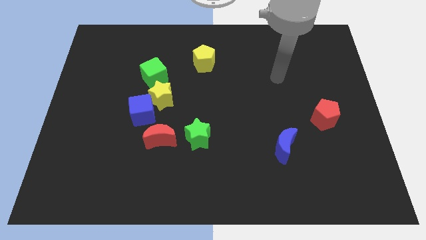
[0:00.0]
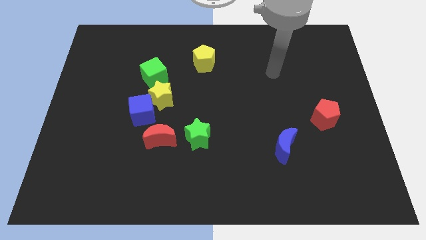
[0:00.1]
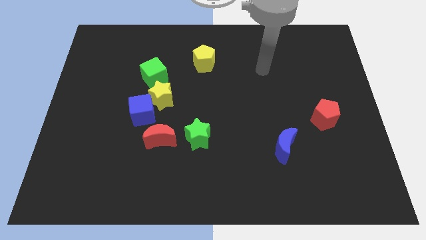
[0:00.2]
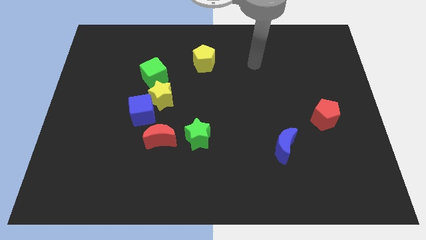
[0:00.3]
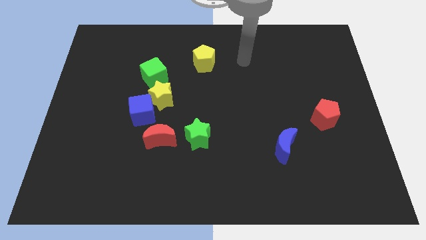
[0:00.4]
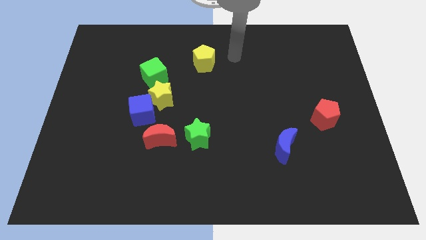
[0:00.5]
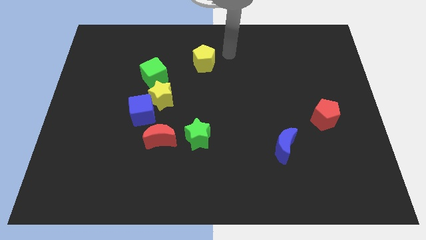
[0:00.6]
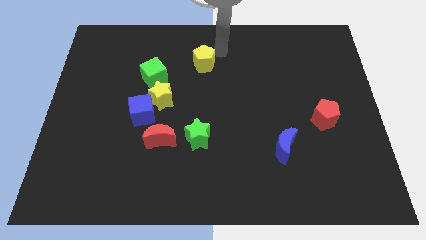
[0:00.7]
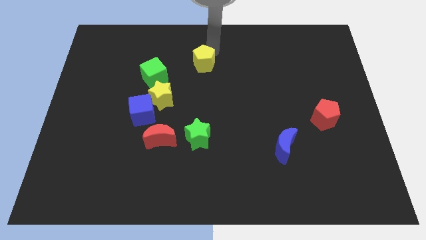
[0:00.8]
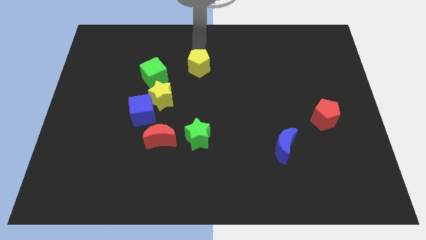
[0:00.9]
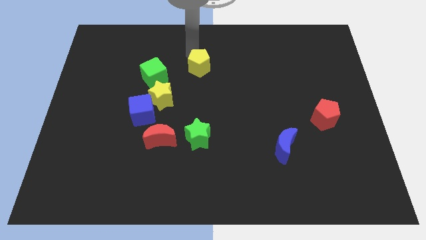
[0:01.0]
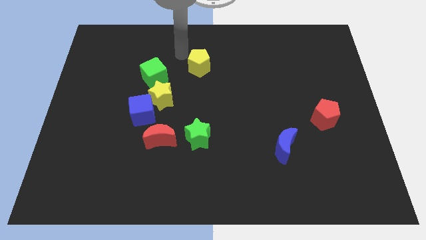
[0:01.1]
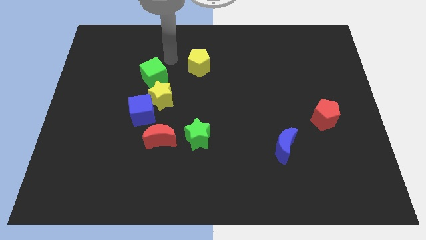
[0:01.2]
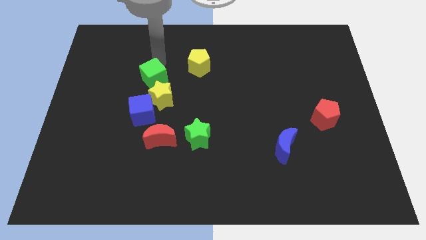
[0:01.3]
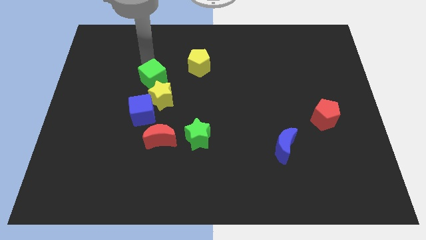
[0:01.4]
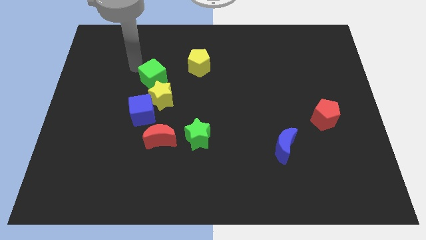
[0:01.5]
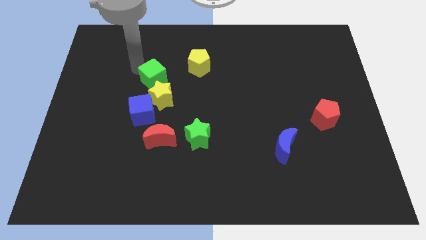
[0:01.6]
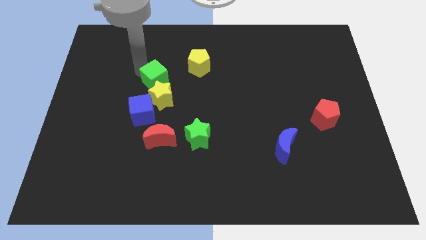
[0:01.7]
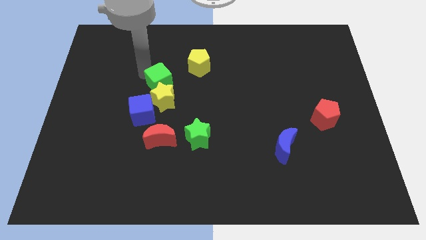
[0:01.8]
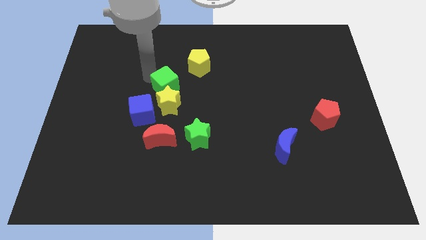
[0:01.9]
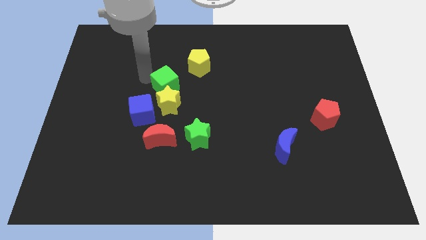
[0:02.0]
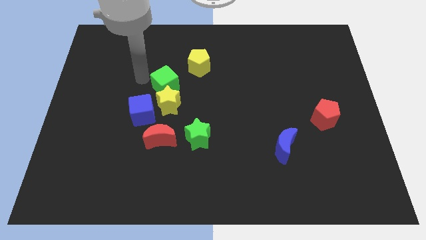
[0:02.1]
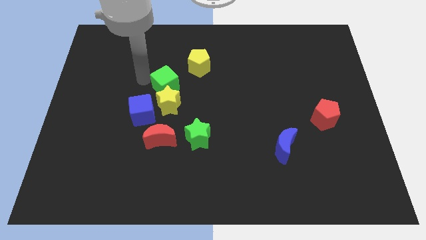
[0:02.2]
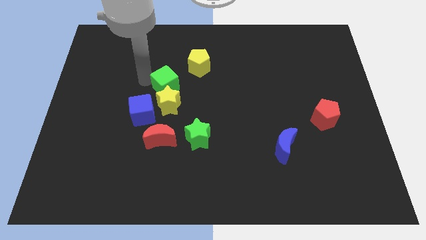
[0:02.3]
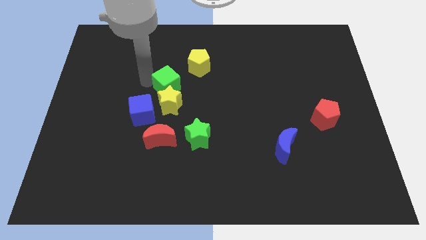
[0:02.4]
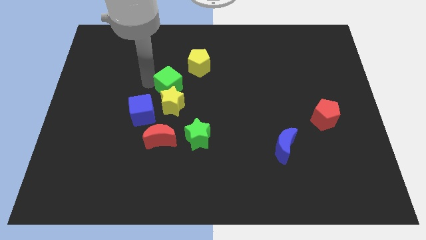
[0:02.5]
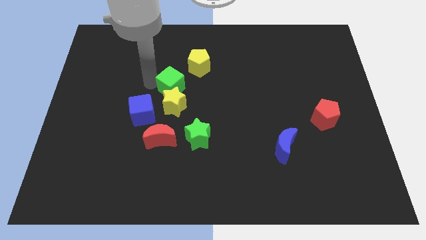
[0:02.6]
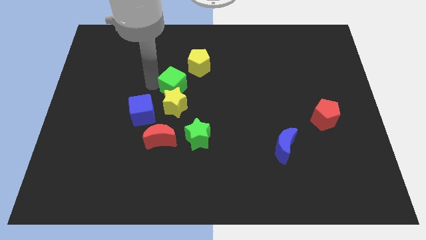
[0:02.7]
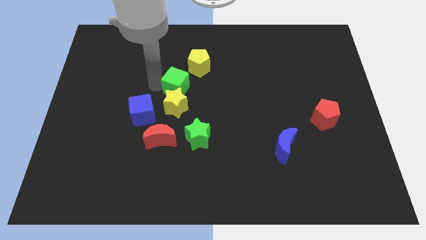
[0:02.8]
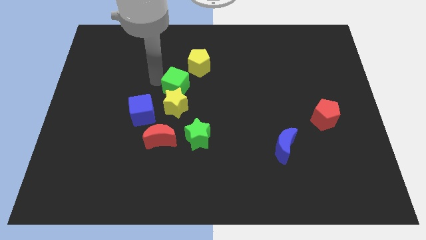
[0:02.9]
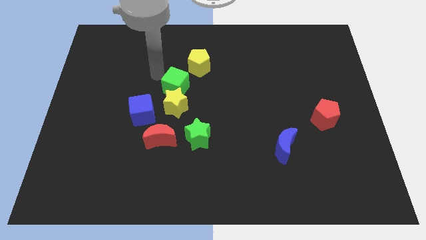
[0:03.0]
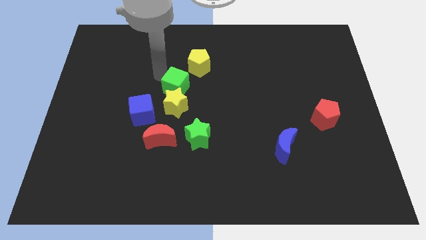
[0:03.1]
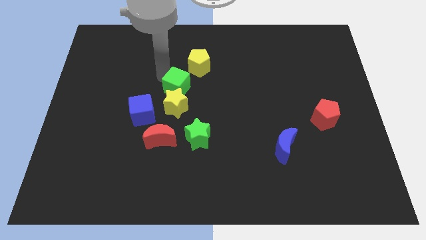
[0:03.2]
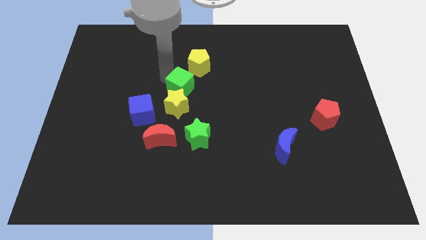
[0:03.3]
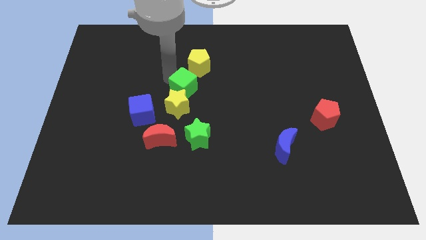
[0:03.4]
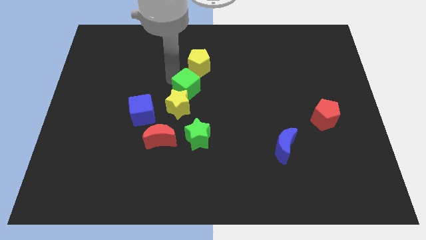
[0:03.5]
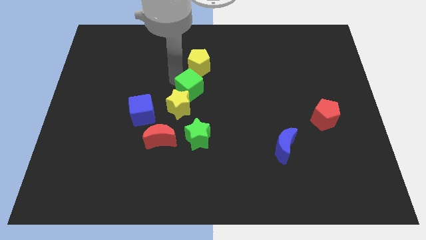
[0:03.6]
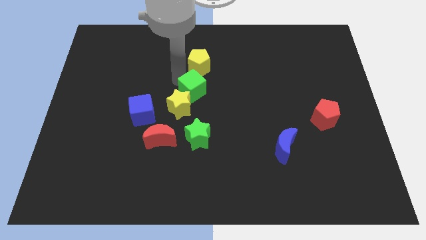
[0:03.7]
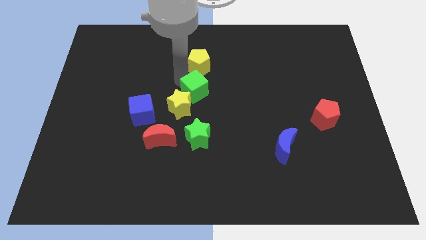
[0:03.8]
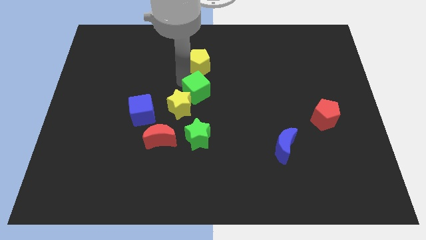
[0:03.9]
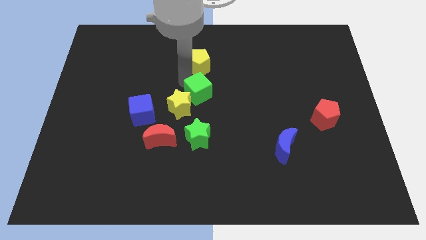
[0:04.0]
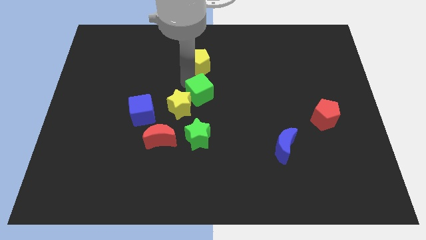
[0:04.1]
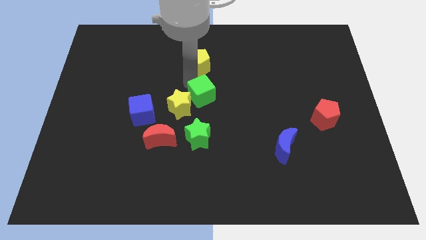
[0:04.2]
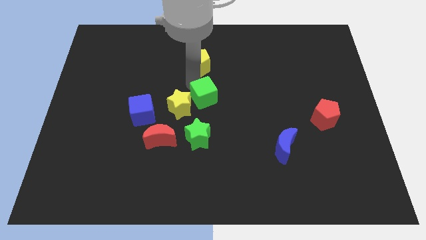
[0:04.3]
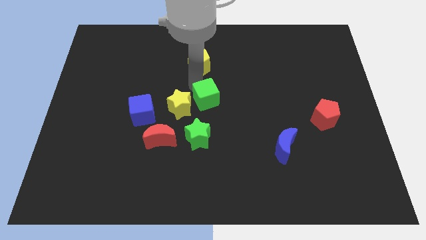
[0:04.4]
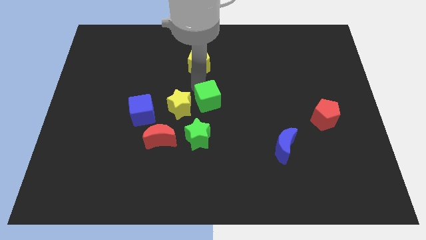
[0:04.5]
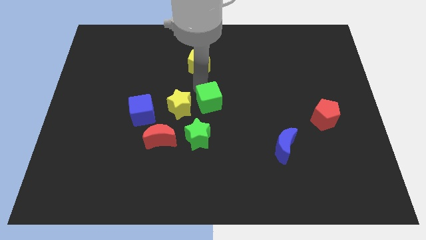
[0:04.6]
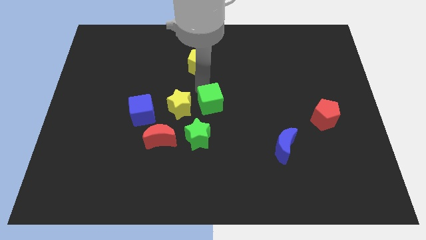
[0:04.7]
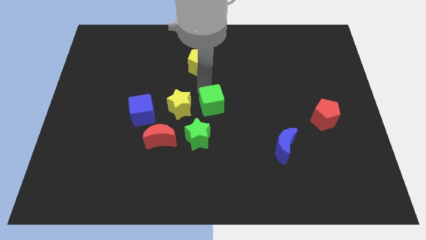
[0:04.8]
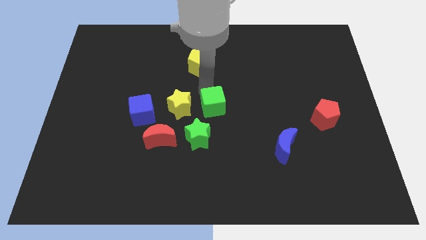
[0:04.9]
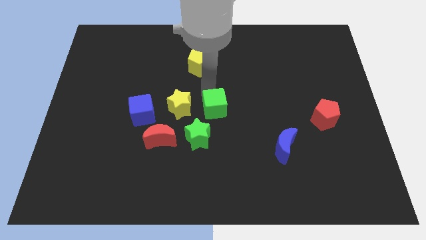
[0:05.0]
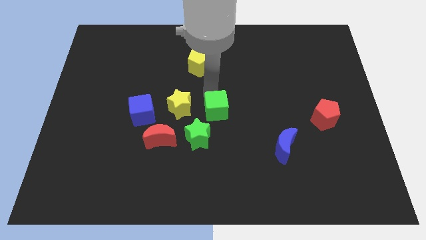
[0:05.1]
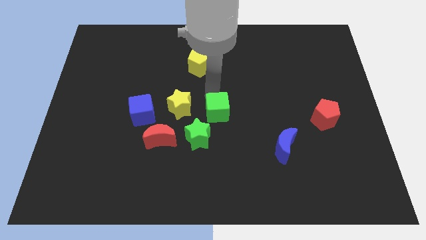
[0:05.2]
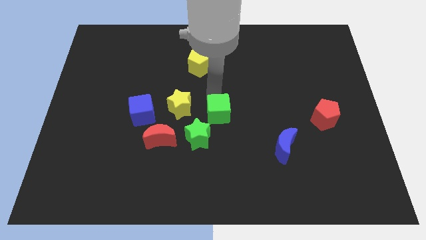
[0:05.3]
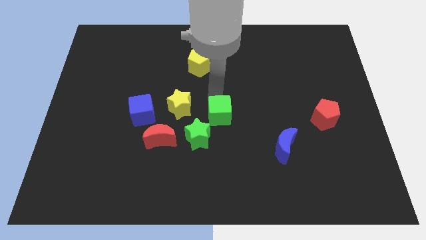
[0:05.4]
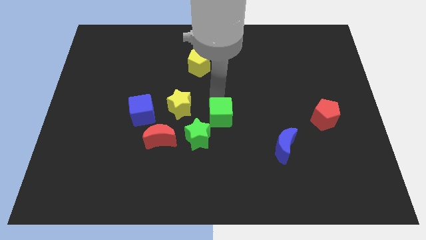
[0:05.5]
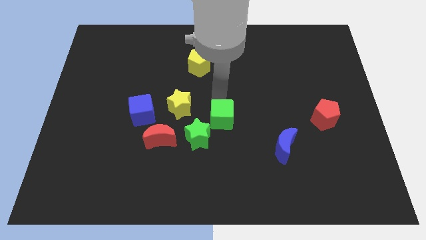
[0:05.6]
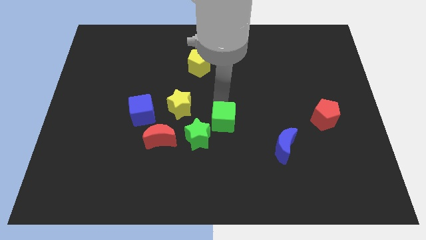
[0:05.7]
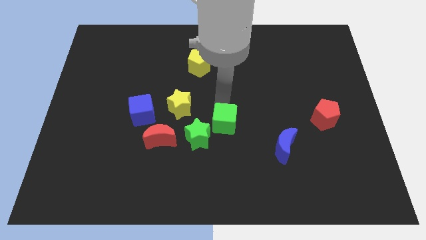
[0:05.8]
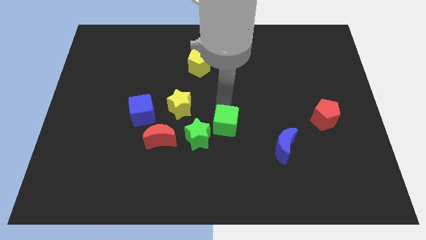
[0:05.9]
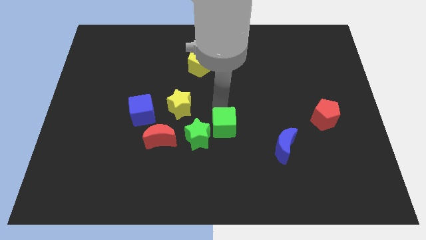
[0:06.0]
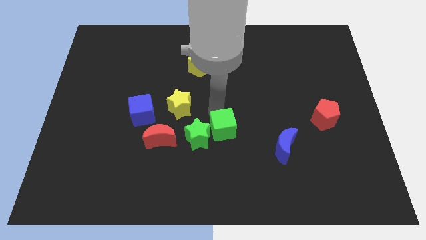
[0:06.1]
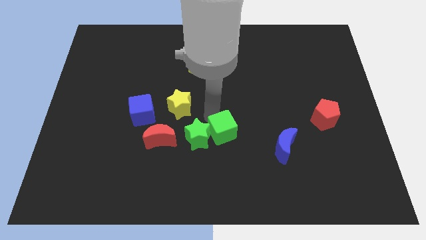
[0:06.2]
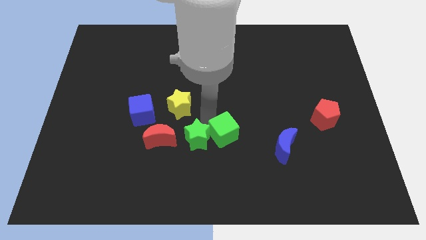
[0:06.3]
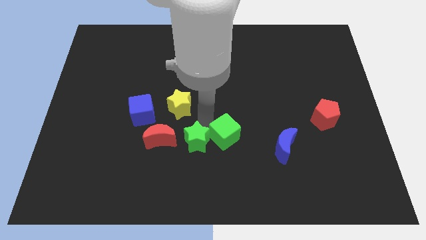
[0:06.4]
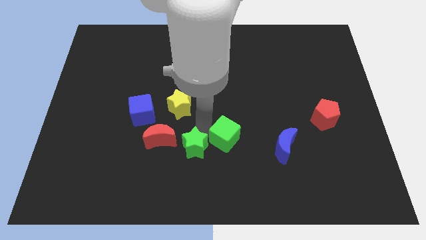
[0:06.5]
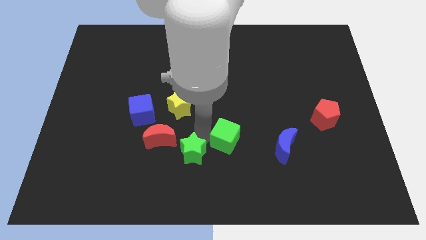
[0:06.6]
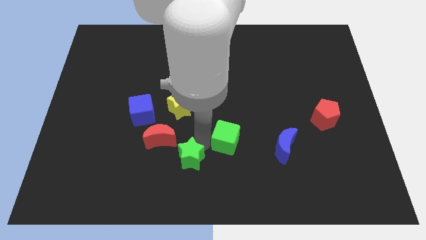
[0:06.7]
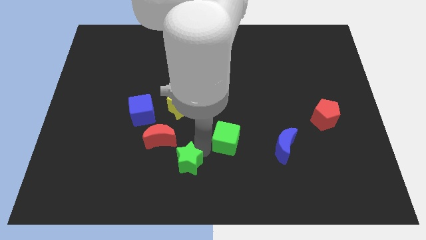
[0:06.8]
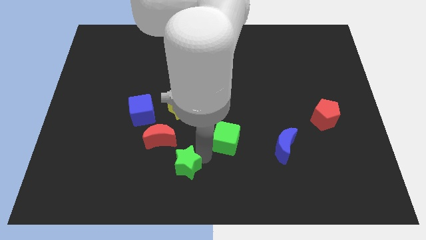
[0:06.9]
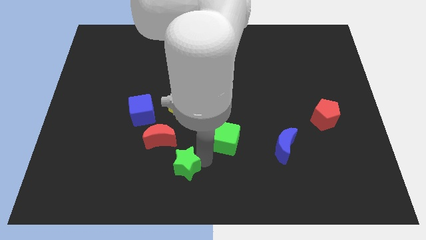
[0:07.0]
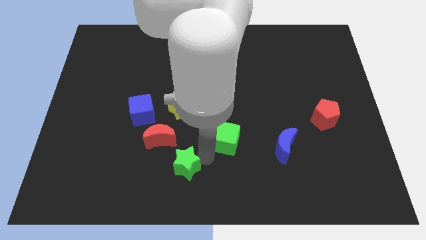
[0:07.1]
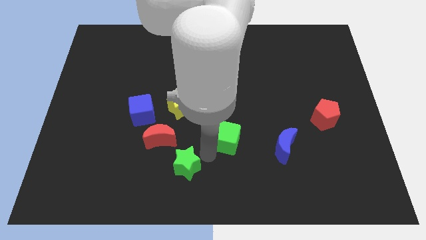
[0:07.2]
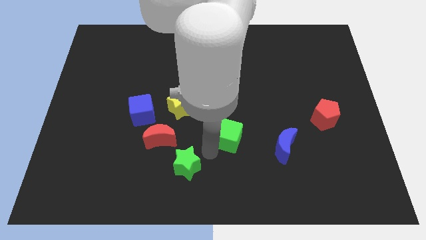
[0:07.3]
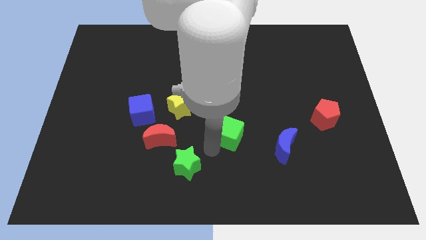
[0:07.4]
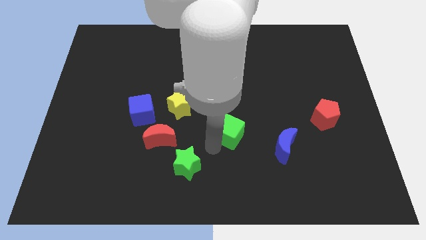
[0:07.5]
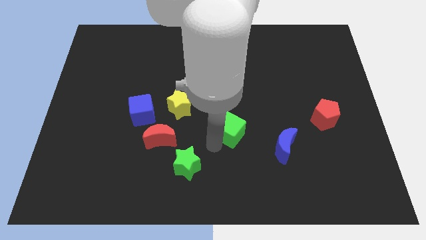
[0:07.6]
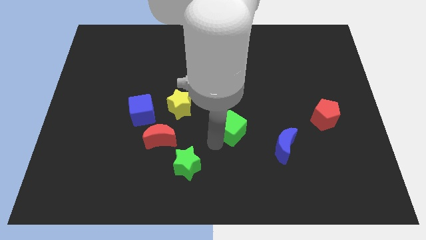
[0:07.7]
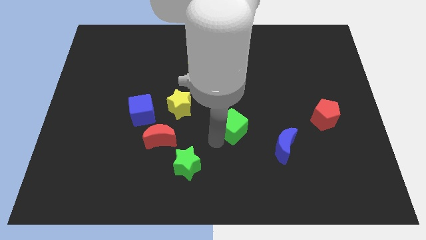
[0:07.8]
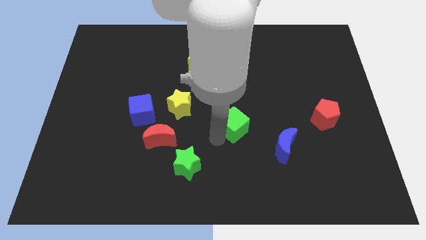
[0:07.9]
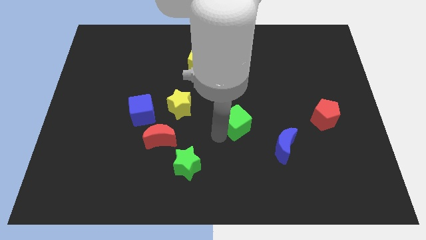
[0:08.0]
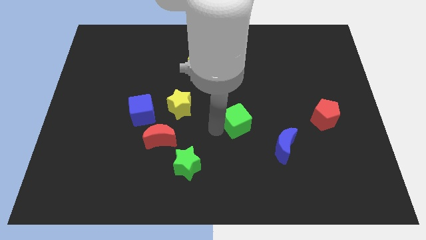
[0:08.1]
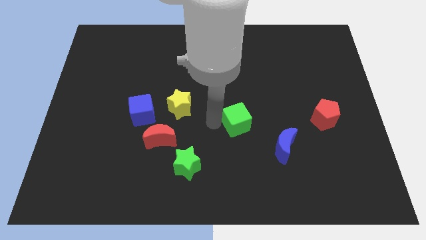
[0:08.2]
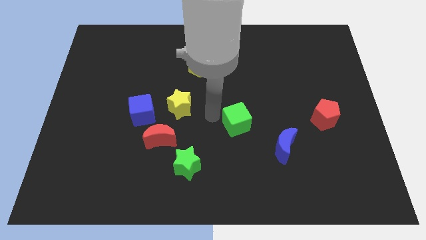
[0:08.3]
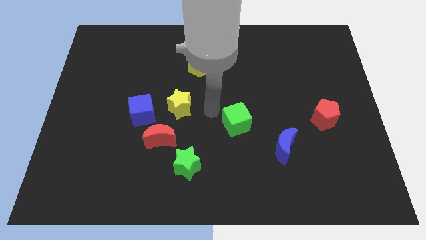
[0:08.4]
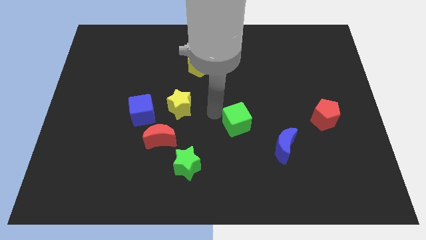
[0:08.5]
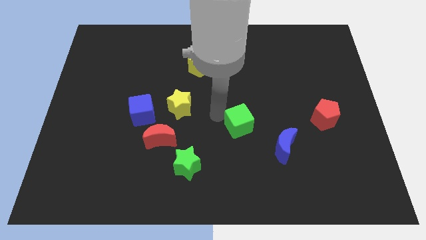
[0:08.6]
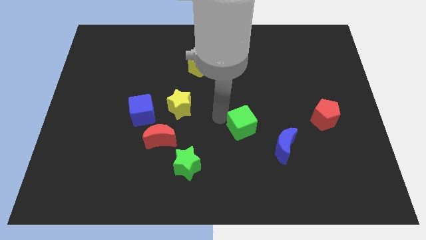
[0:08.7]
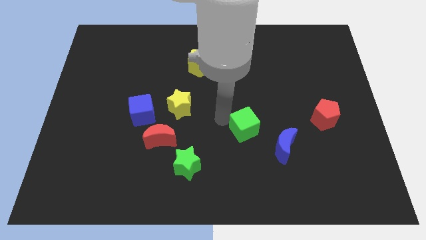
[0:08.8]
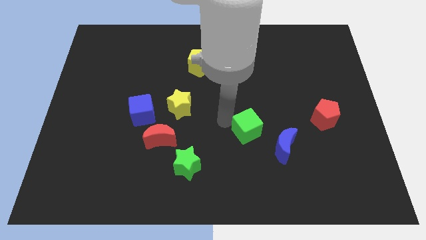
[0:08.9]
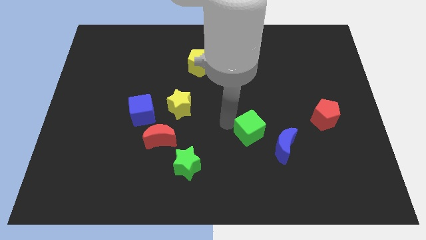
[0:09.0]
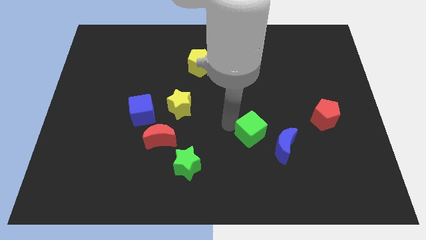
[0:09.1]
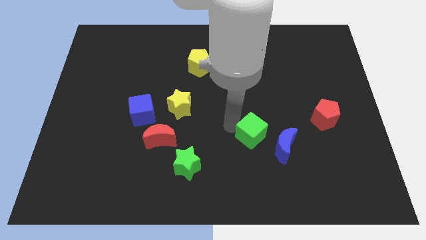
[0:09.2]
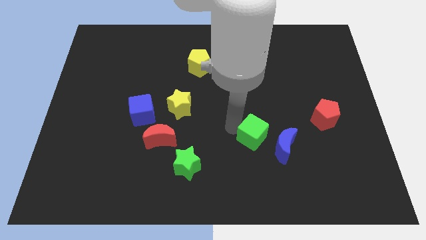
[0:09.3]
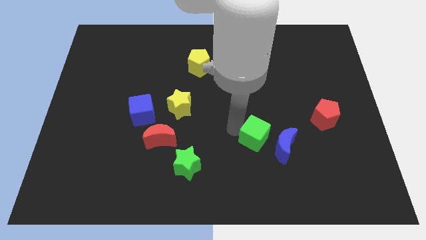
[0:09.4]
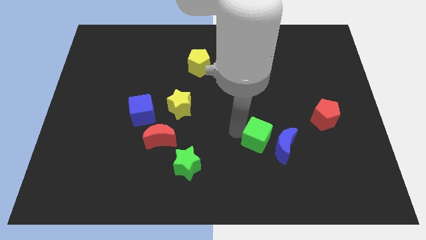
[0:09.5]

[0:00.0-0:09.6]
push the green cube next to the blue moon
